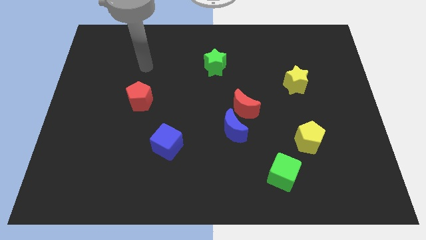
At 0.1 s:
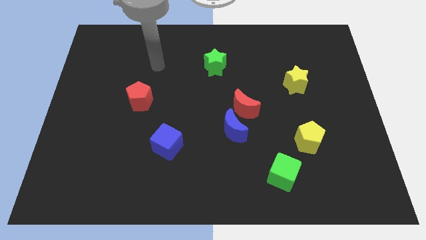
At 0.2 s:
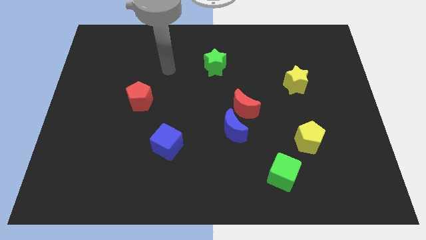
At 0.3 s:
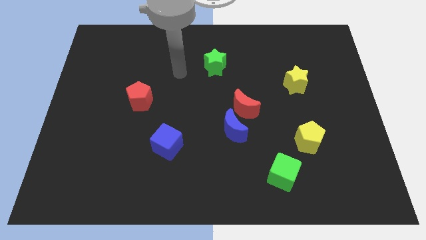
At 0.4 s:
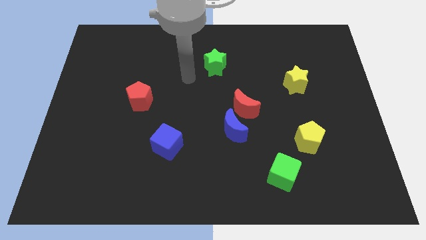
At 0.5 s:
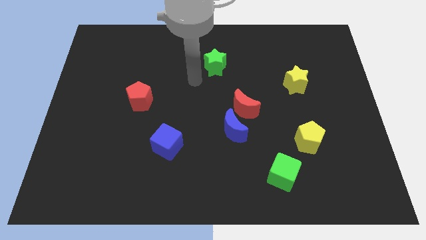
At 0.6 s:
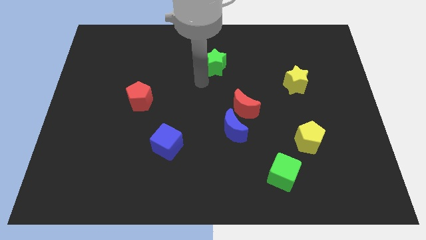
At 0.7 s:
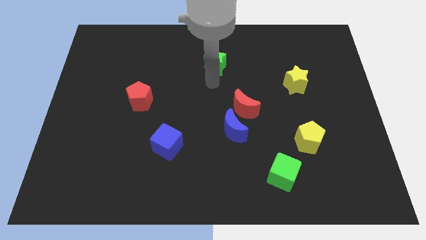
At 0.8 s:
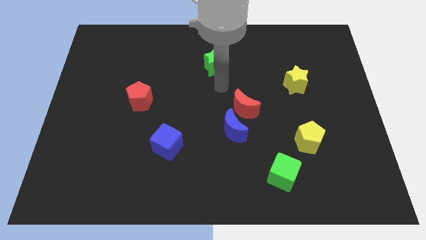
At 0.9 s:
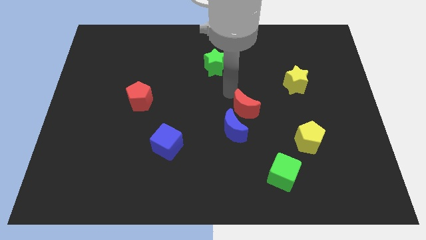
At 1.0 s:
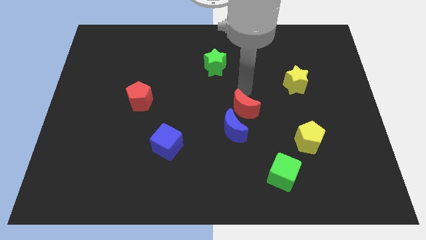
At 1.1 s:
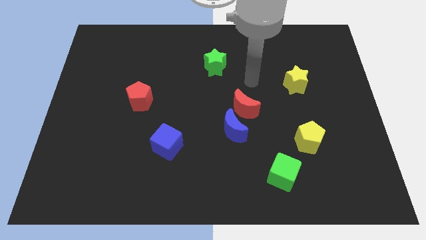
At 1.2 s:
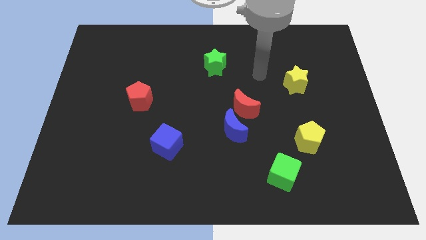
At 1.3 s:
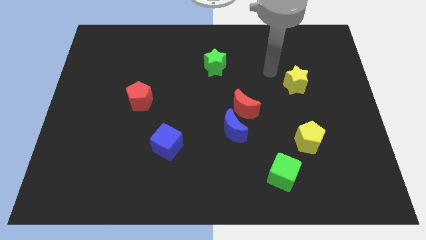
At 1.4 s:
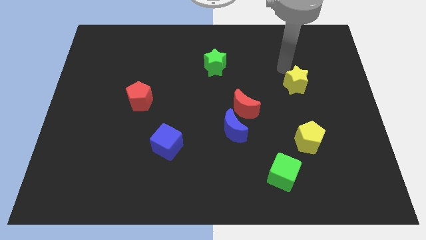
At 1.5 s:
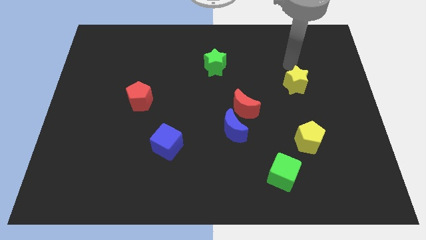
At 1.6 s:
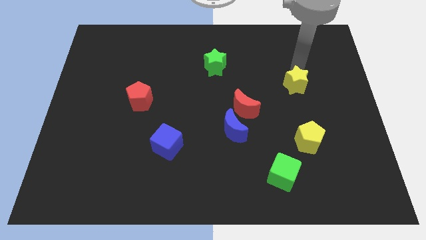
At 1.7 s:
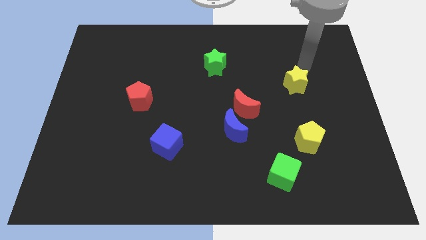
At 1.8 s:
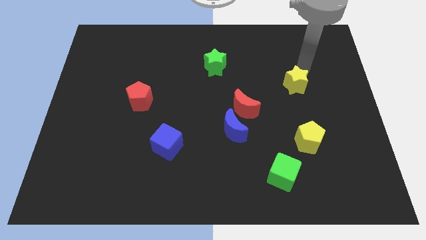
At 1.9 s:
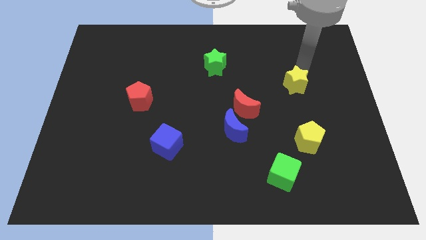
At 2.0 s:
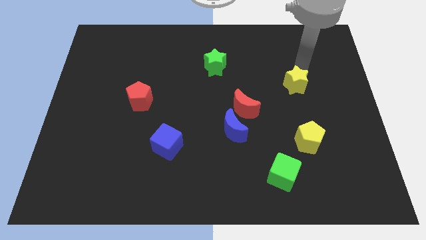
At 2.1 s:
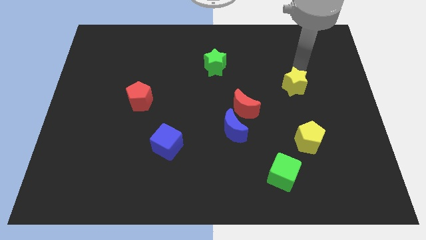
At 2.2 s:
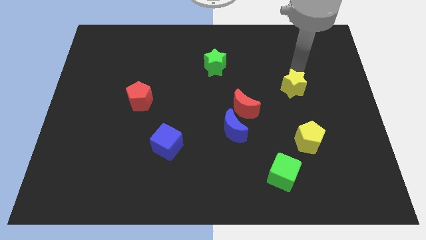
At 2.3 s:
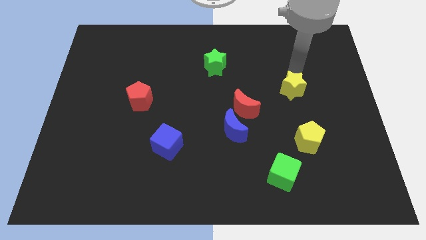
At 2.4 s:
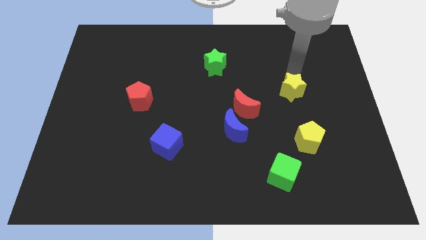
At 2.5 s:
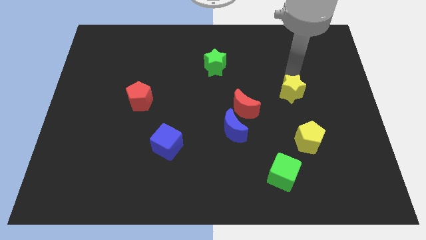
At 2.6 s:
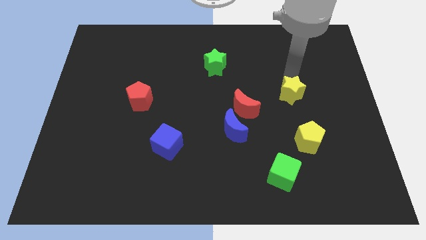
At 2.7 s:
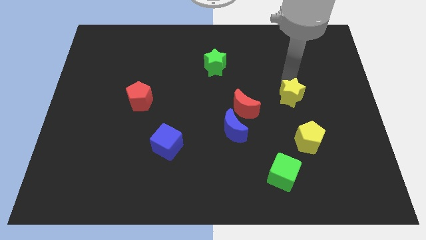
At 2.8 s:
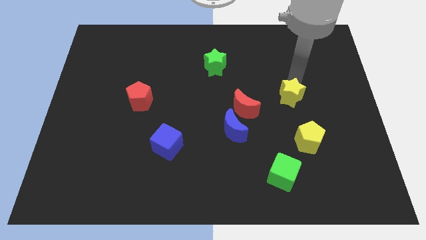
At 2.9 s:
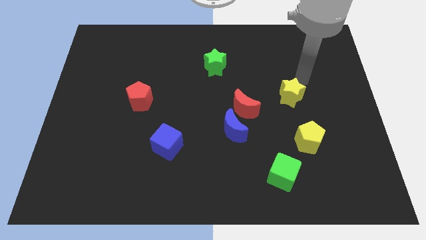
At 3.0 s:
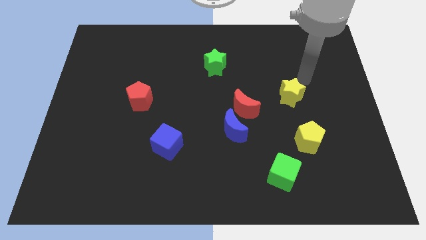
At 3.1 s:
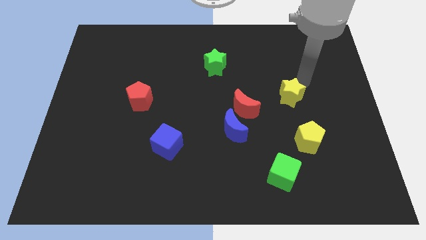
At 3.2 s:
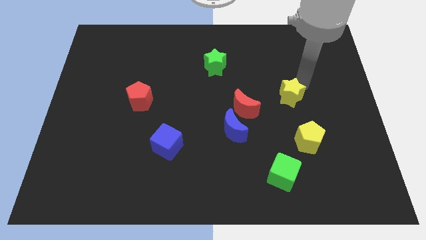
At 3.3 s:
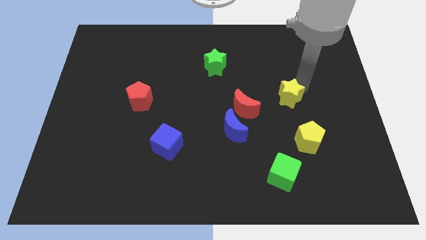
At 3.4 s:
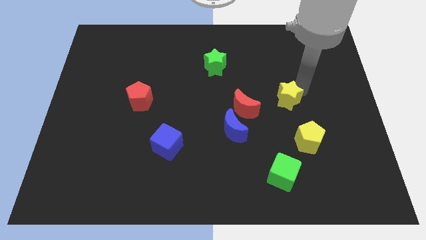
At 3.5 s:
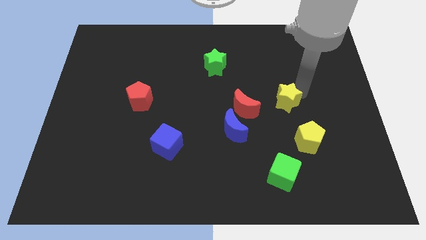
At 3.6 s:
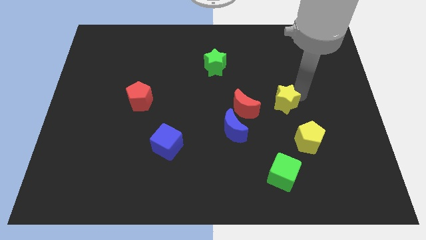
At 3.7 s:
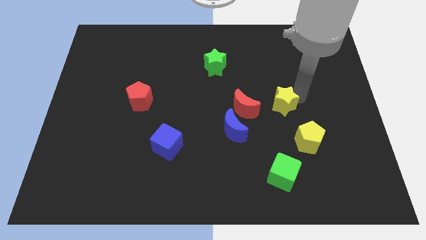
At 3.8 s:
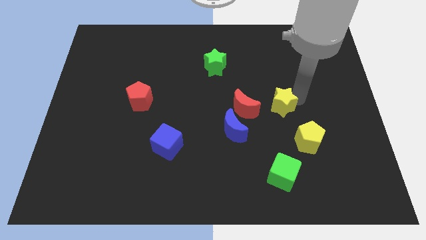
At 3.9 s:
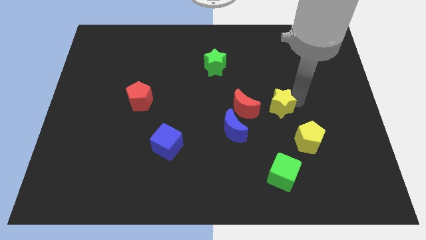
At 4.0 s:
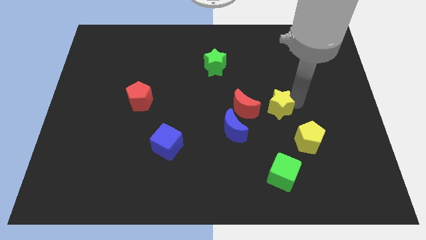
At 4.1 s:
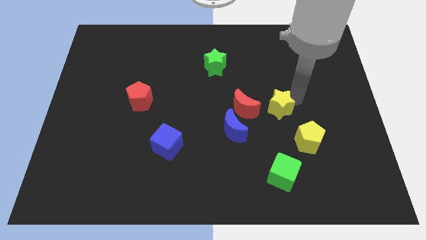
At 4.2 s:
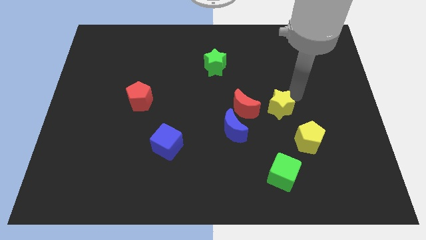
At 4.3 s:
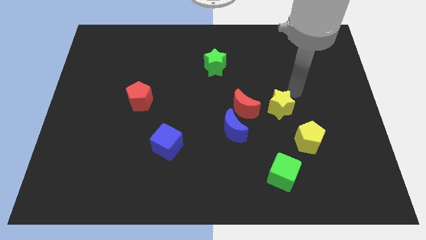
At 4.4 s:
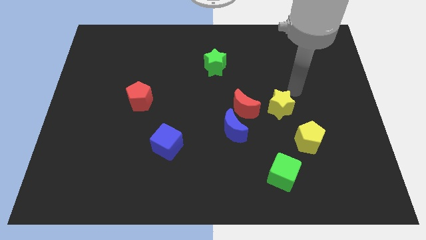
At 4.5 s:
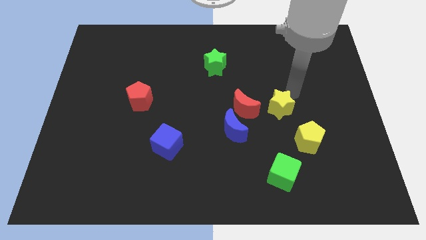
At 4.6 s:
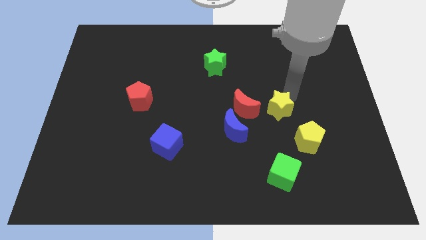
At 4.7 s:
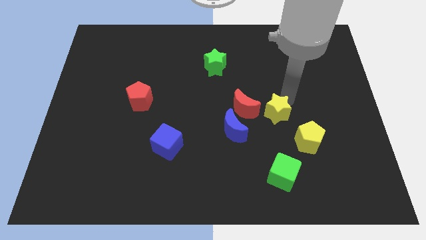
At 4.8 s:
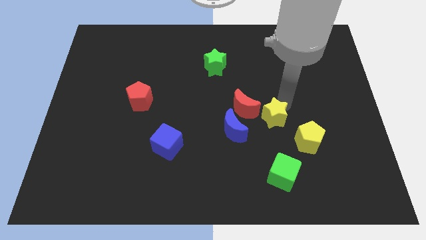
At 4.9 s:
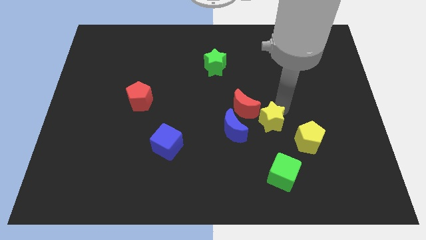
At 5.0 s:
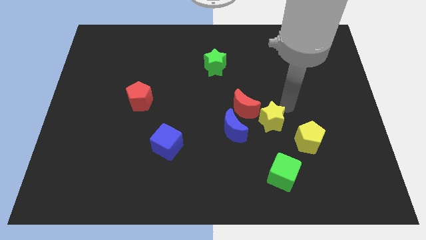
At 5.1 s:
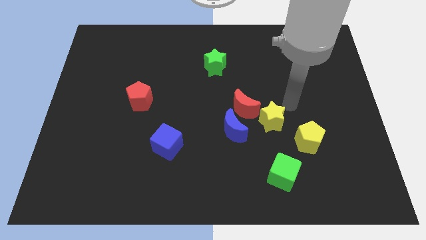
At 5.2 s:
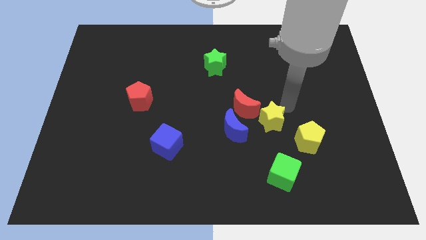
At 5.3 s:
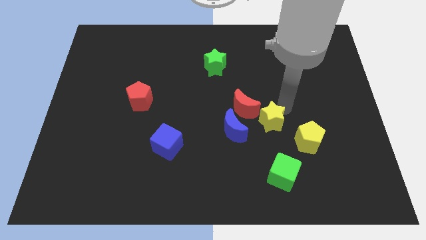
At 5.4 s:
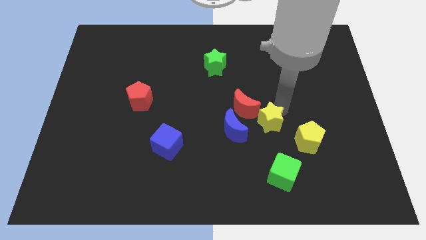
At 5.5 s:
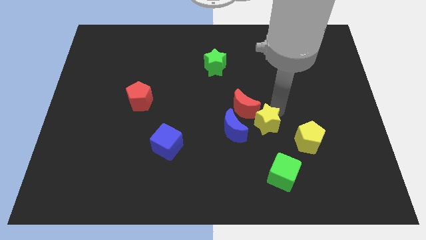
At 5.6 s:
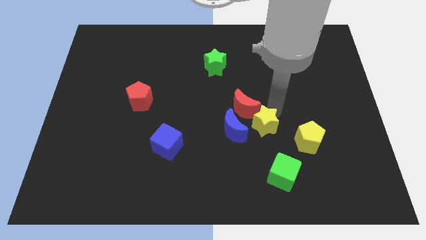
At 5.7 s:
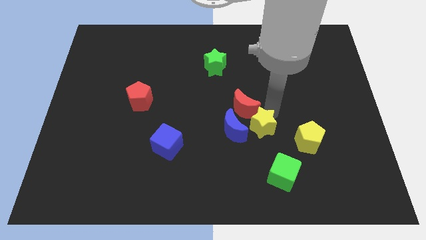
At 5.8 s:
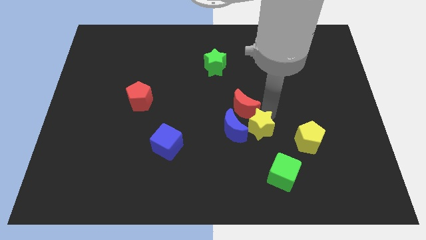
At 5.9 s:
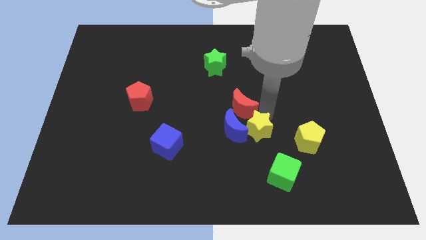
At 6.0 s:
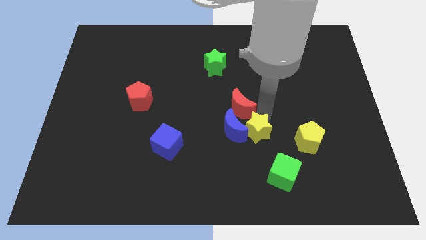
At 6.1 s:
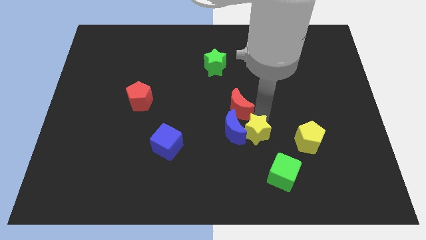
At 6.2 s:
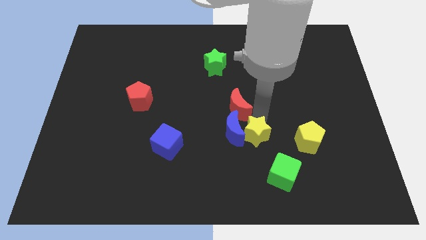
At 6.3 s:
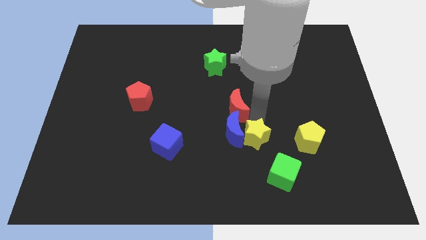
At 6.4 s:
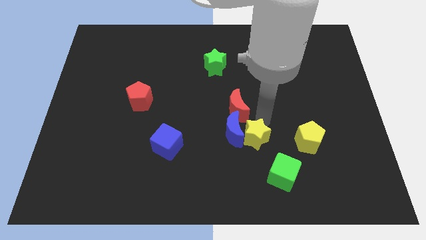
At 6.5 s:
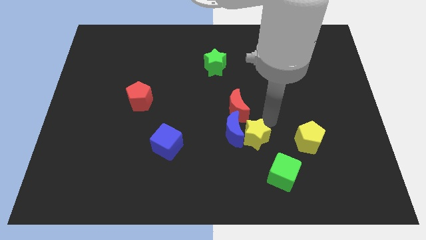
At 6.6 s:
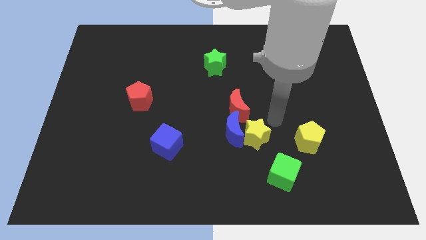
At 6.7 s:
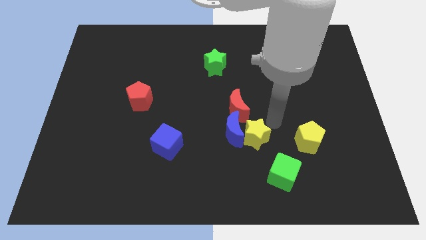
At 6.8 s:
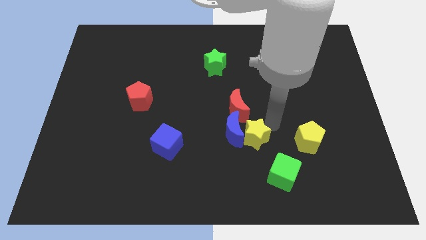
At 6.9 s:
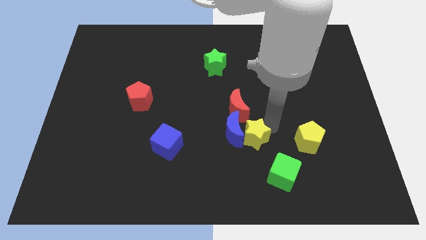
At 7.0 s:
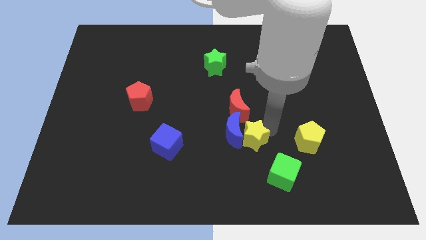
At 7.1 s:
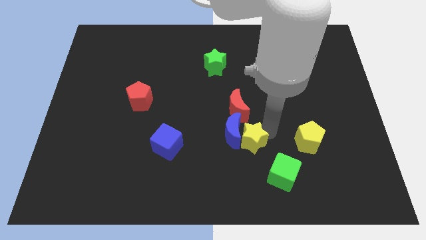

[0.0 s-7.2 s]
move the yellow star downwards and to the left

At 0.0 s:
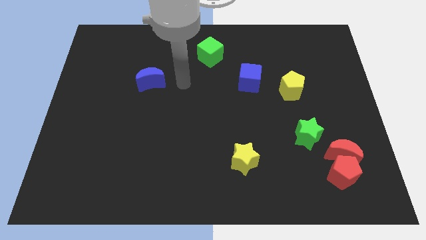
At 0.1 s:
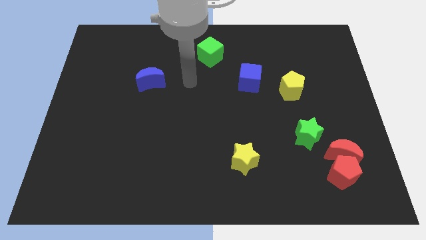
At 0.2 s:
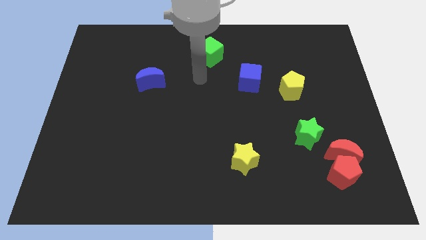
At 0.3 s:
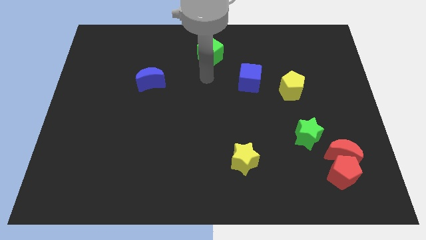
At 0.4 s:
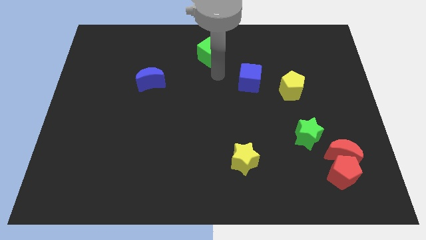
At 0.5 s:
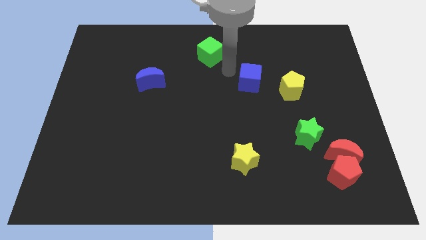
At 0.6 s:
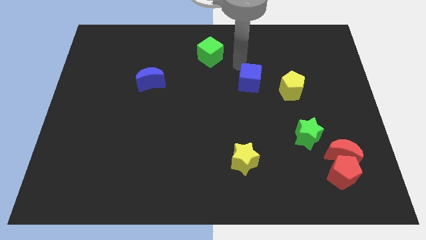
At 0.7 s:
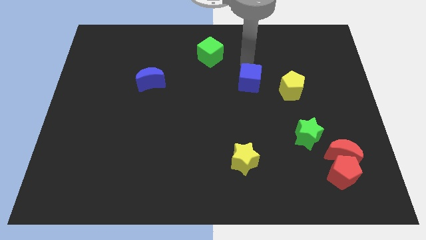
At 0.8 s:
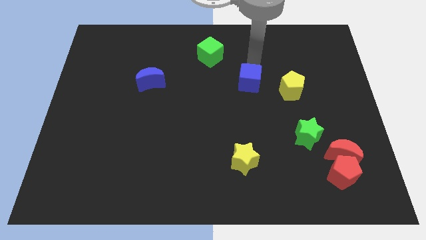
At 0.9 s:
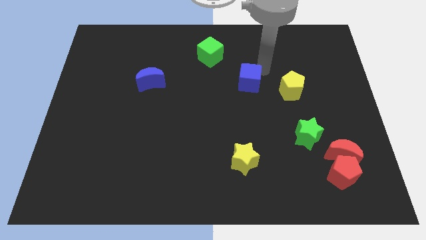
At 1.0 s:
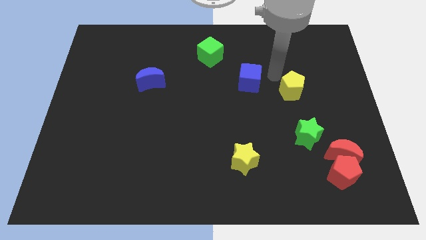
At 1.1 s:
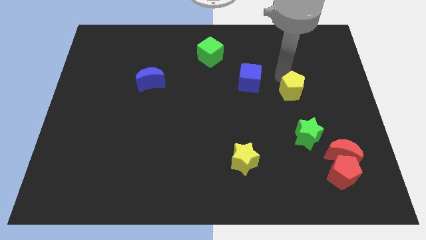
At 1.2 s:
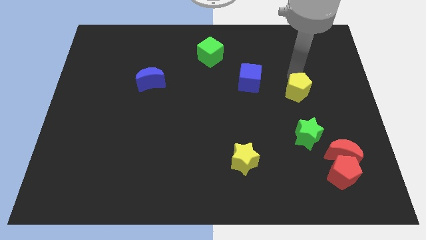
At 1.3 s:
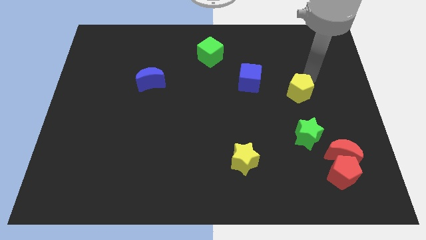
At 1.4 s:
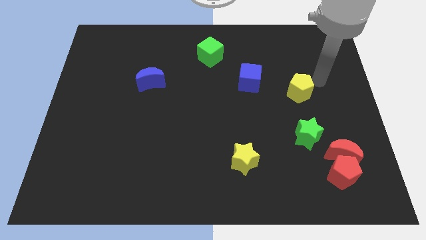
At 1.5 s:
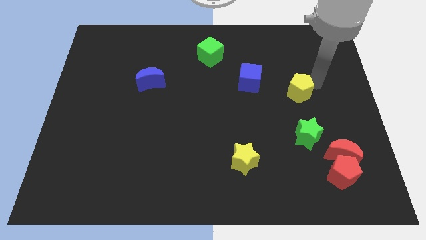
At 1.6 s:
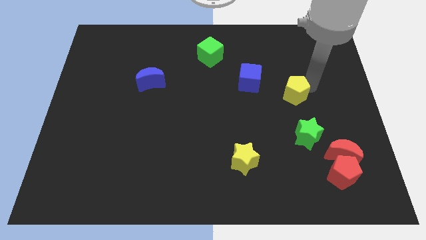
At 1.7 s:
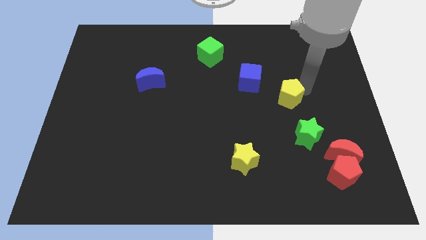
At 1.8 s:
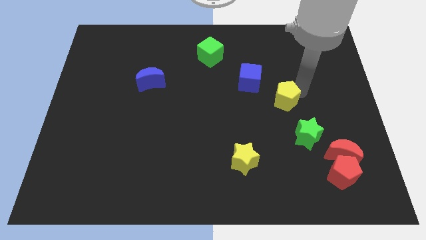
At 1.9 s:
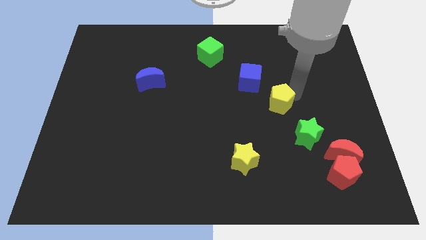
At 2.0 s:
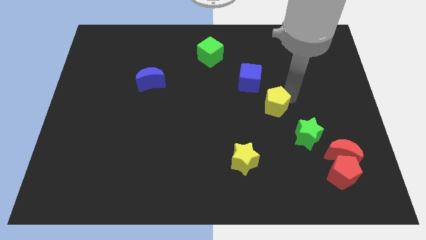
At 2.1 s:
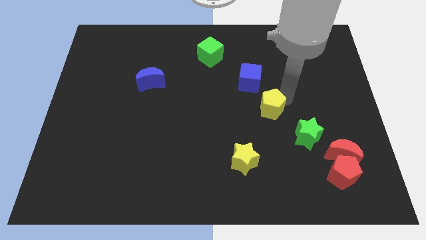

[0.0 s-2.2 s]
move the yellow pentagon down and left diagonally a little bit
